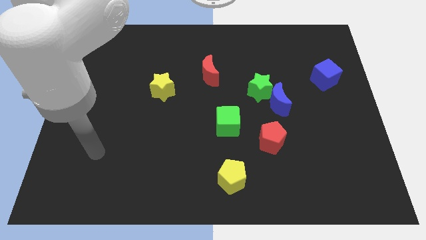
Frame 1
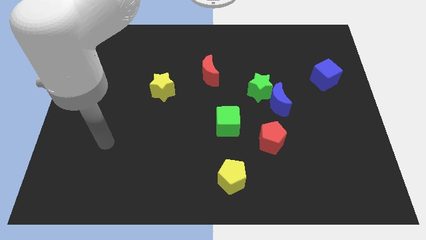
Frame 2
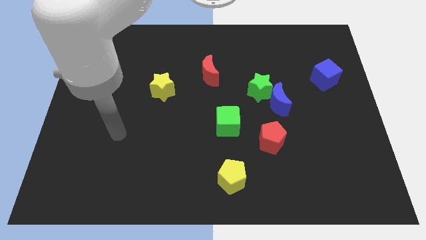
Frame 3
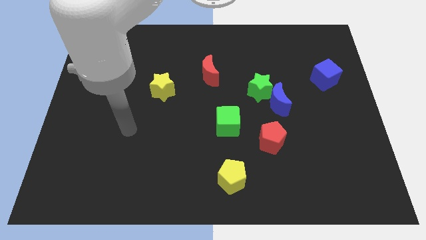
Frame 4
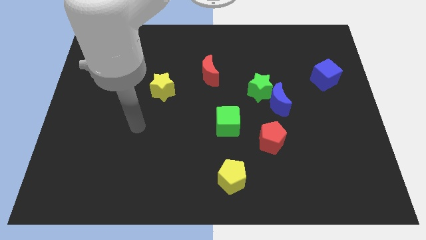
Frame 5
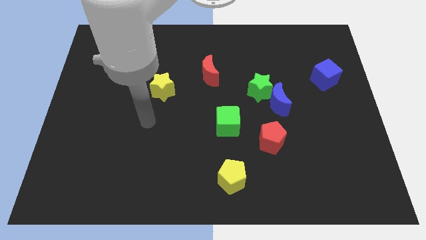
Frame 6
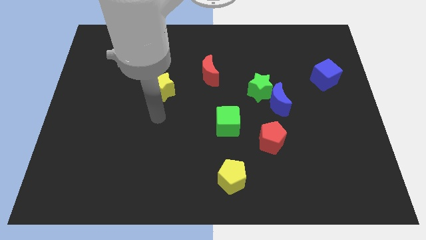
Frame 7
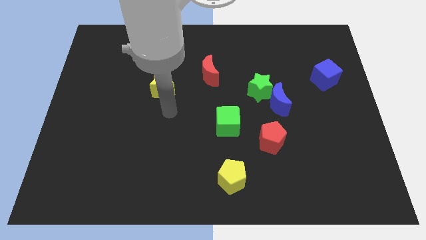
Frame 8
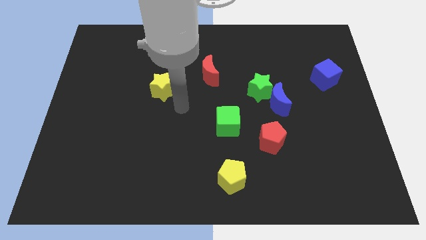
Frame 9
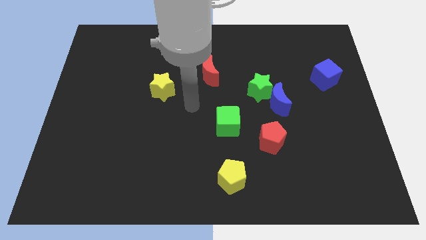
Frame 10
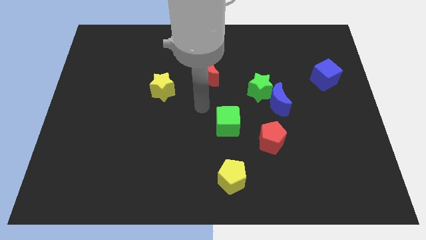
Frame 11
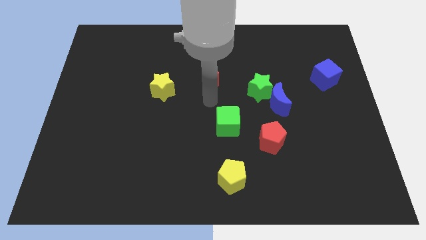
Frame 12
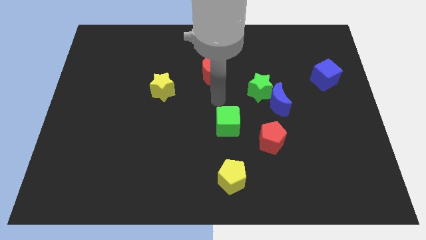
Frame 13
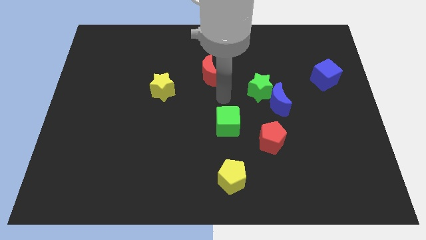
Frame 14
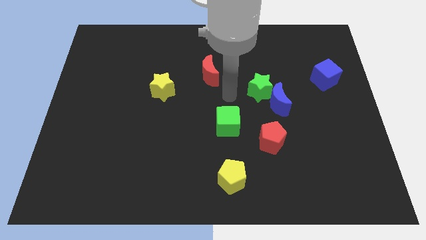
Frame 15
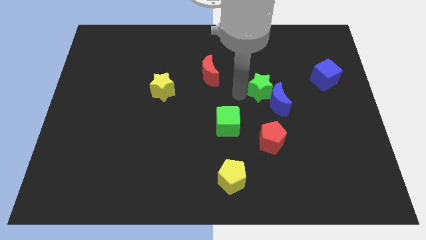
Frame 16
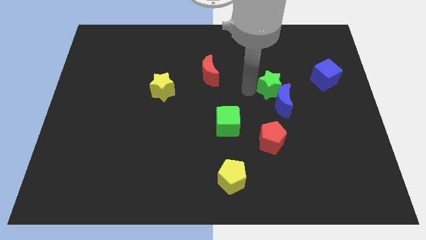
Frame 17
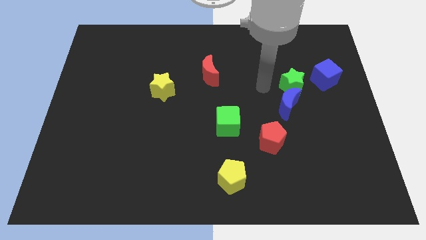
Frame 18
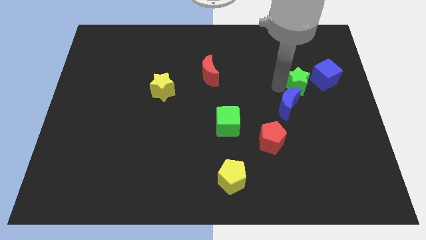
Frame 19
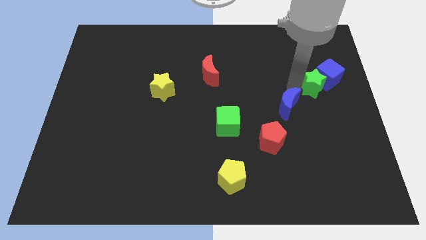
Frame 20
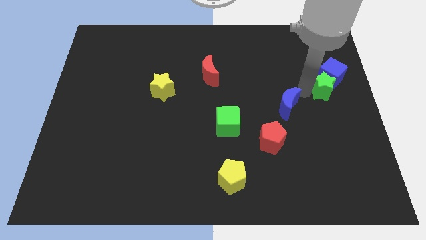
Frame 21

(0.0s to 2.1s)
move the blue moon away from the green star

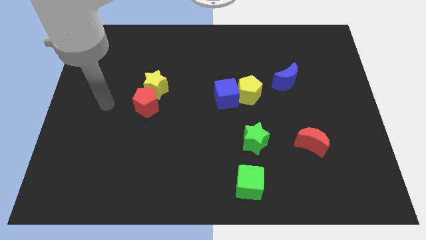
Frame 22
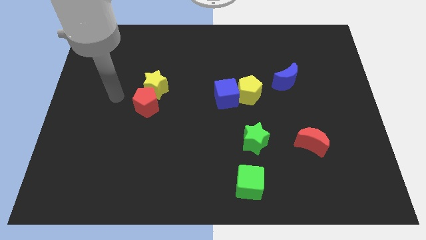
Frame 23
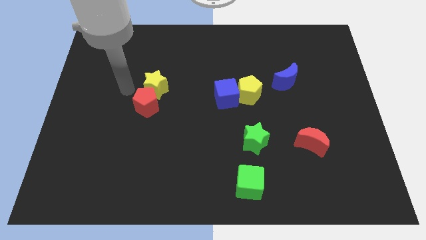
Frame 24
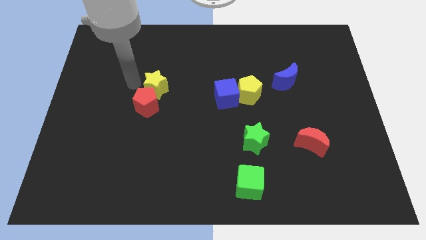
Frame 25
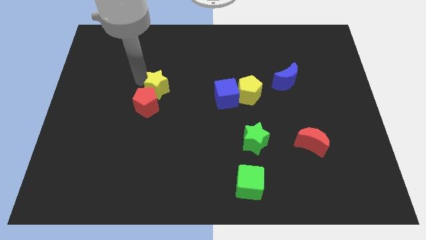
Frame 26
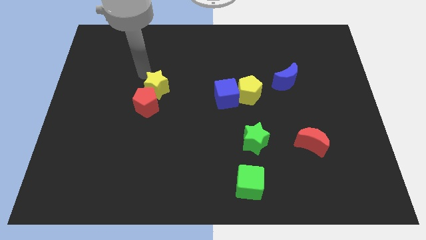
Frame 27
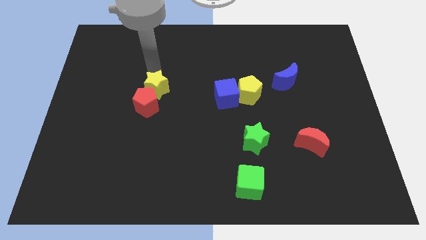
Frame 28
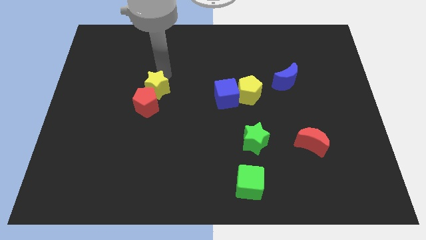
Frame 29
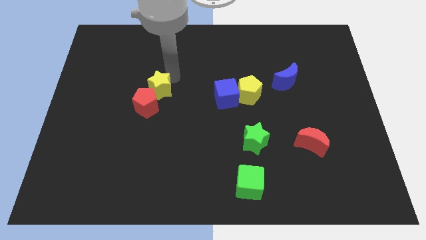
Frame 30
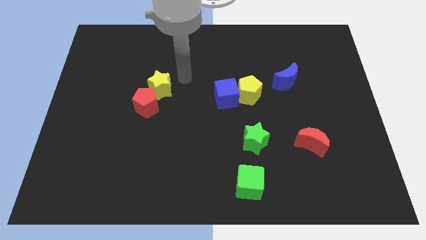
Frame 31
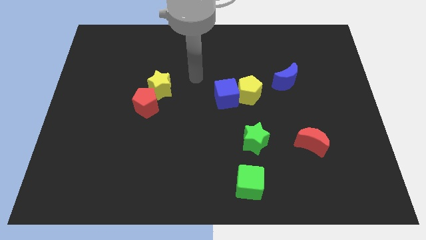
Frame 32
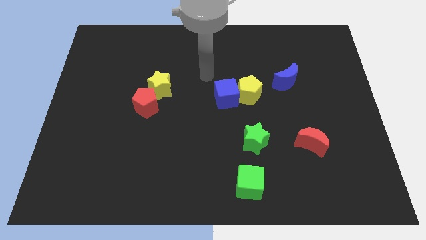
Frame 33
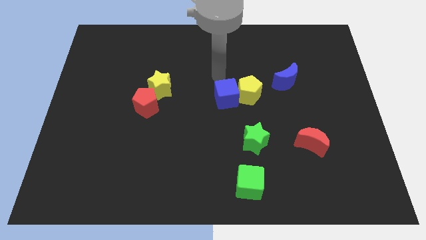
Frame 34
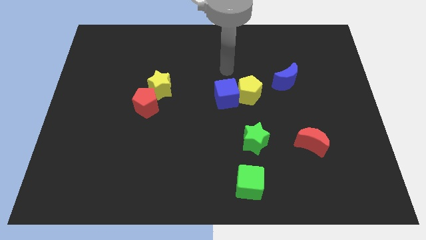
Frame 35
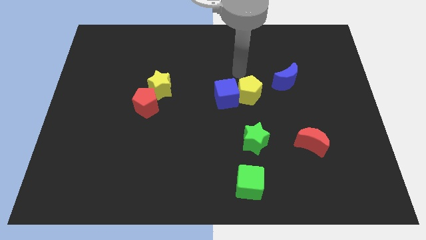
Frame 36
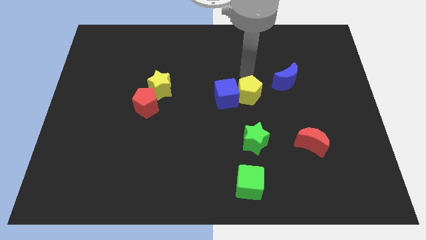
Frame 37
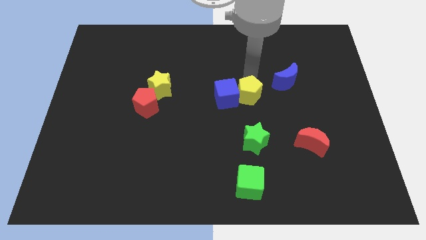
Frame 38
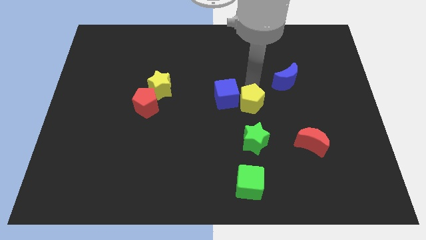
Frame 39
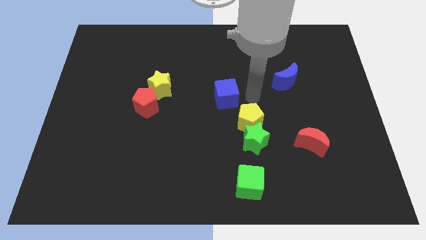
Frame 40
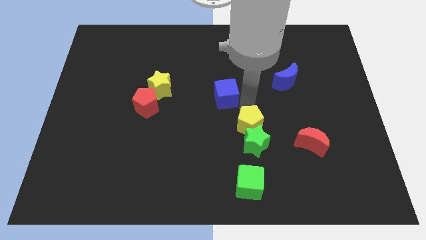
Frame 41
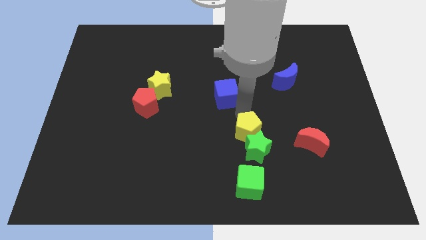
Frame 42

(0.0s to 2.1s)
separate the blue cube from the yellow pentagon

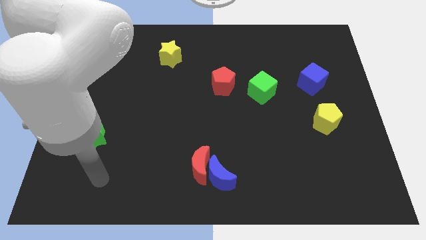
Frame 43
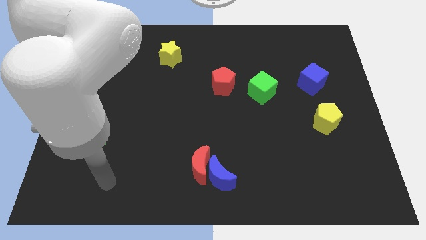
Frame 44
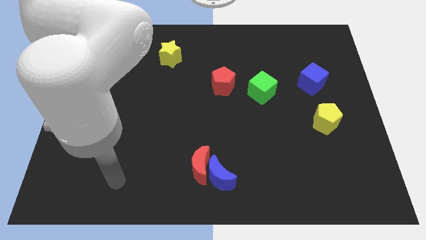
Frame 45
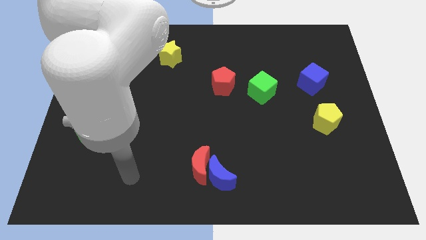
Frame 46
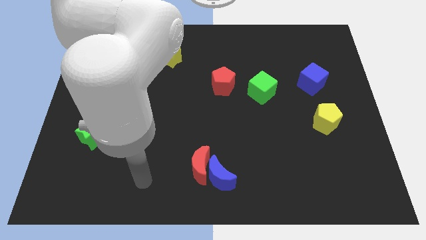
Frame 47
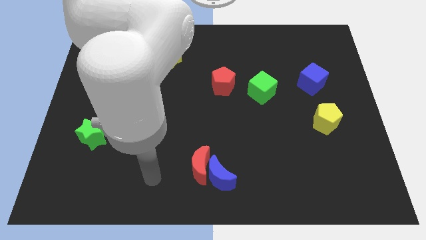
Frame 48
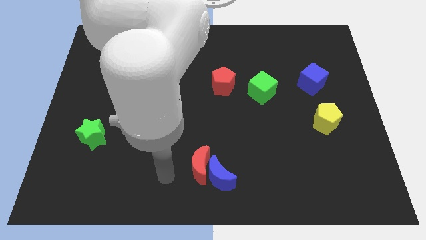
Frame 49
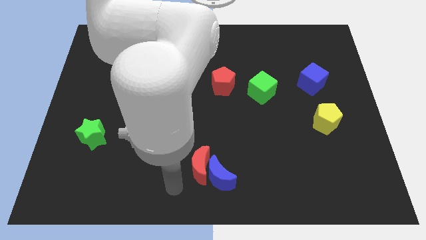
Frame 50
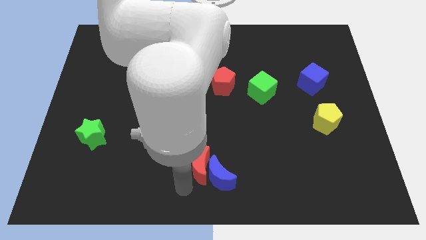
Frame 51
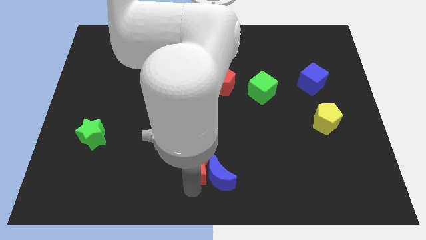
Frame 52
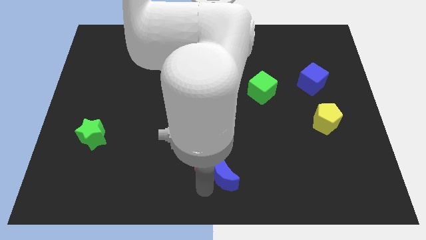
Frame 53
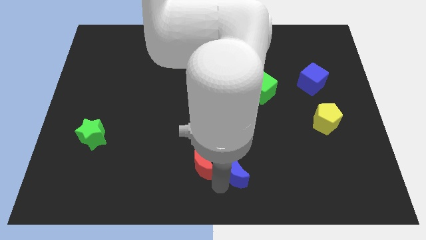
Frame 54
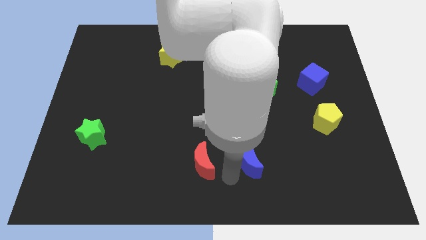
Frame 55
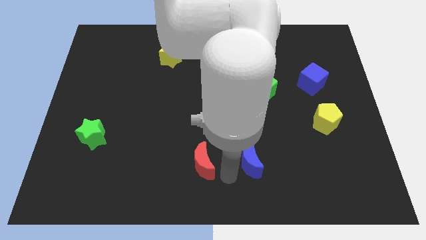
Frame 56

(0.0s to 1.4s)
separate the red moon from the blue moon

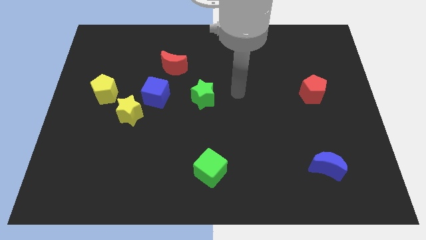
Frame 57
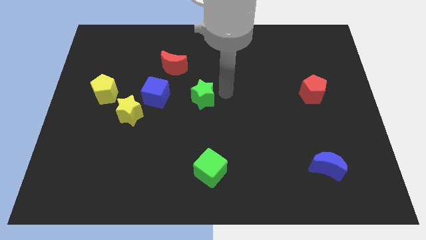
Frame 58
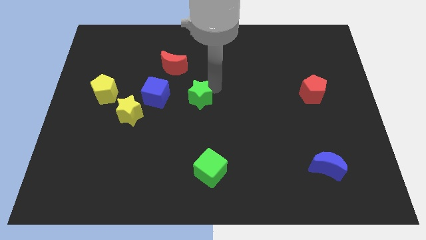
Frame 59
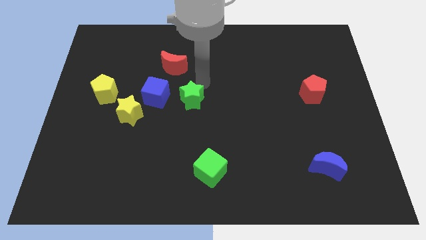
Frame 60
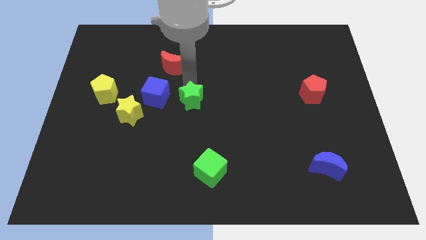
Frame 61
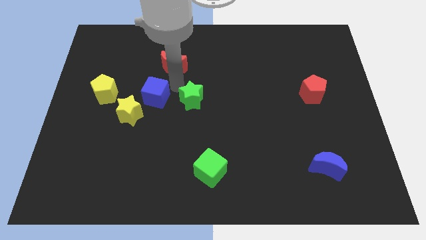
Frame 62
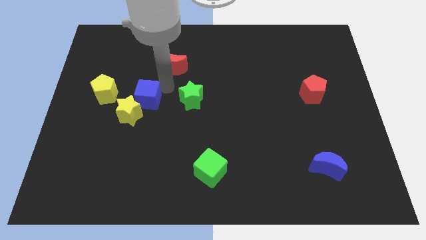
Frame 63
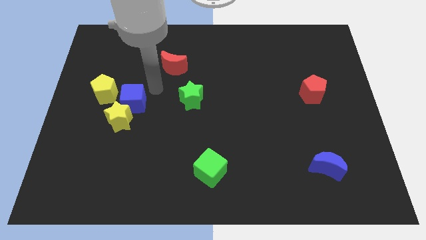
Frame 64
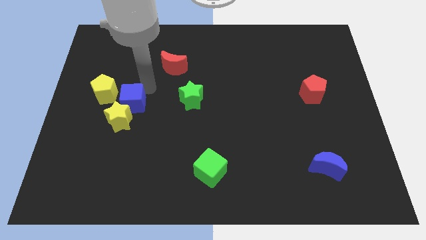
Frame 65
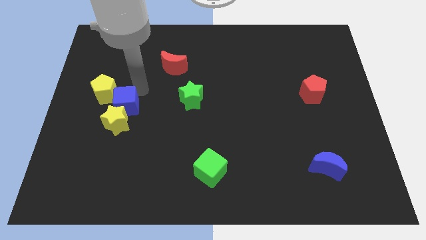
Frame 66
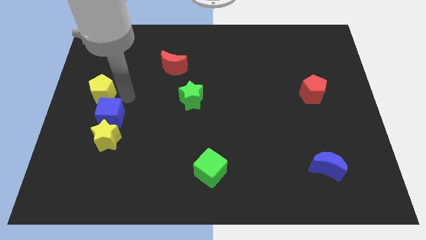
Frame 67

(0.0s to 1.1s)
separate the yellow star from the blue cube and yellow pentagon

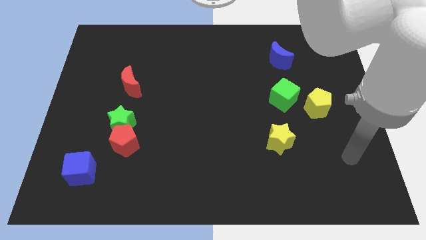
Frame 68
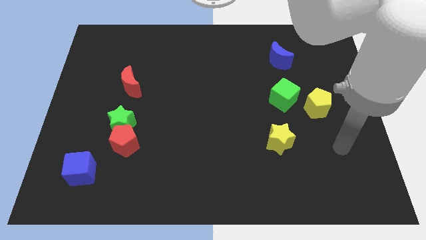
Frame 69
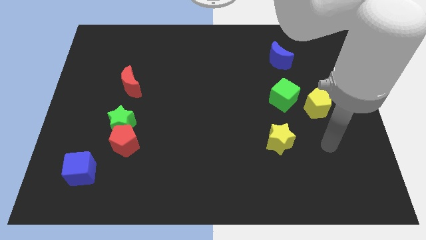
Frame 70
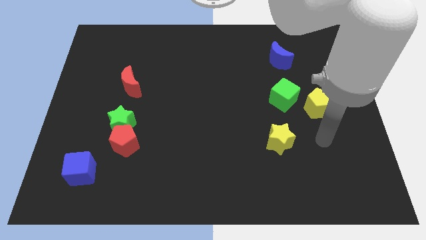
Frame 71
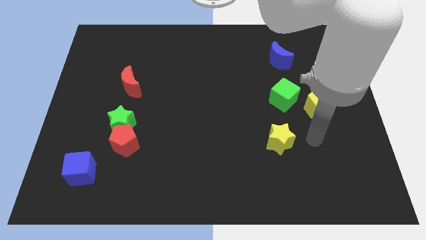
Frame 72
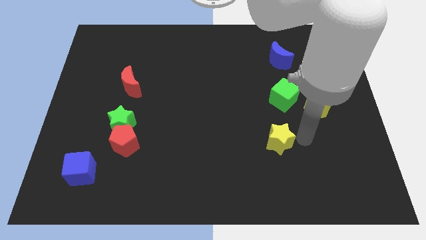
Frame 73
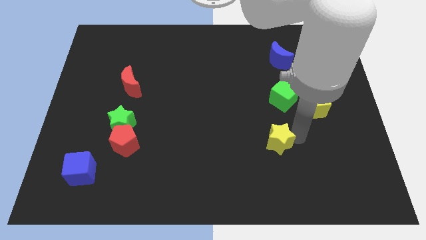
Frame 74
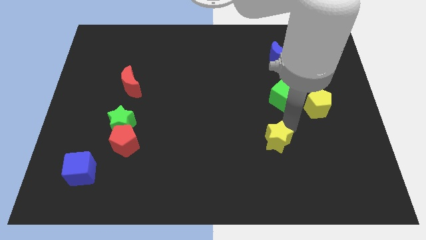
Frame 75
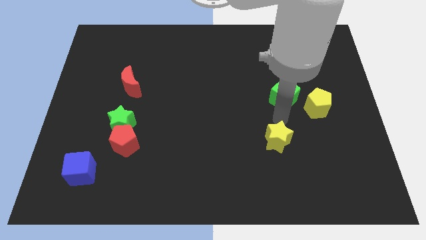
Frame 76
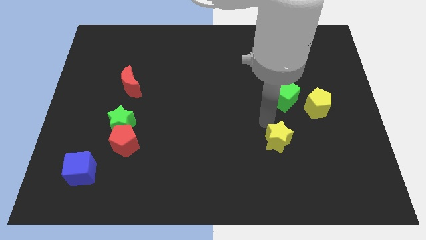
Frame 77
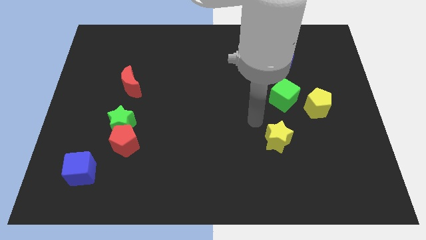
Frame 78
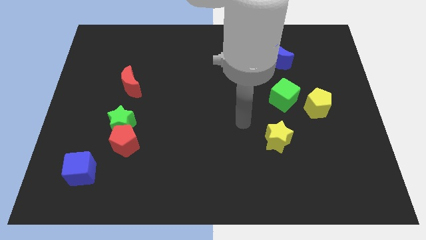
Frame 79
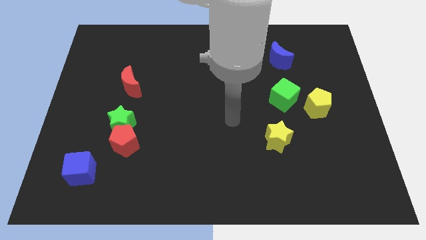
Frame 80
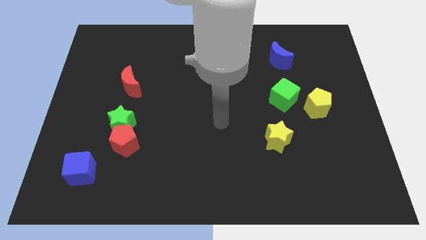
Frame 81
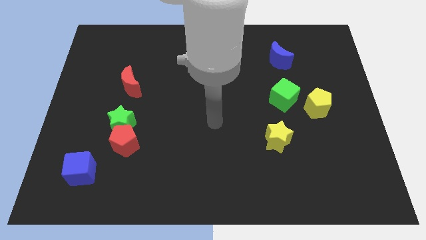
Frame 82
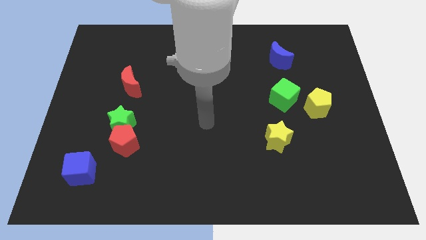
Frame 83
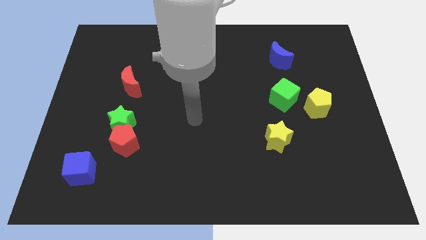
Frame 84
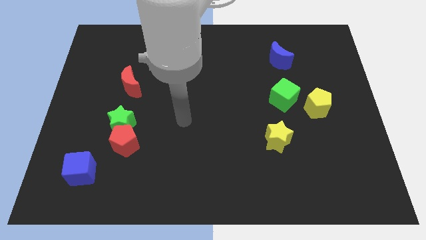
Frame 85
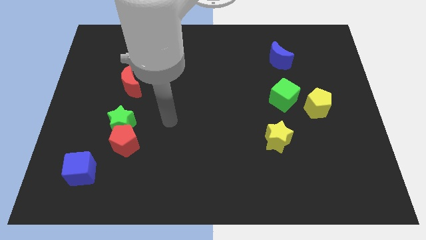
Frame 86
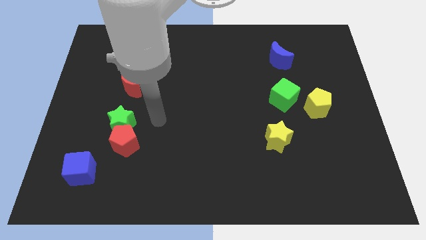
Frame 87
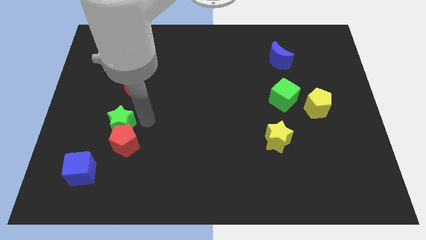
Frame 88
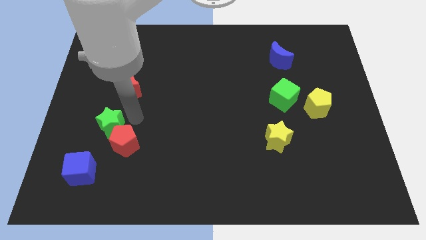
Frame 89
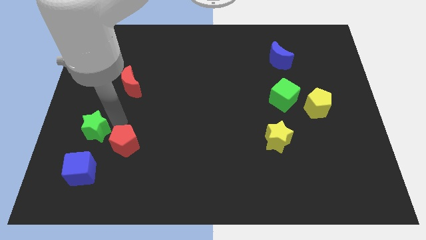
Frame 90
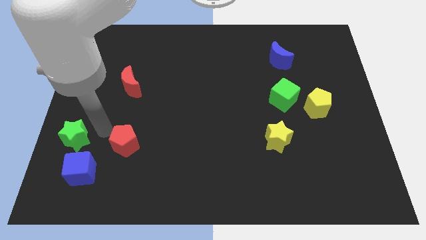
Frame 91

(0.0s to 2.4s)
move the red pentagon away from the green star

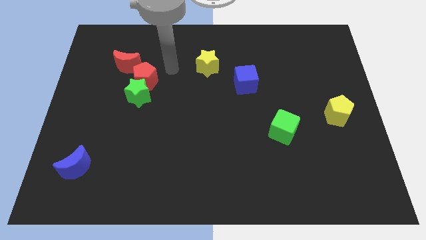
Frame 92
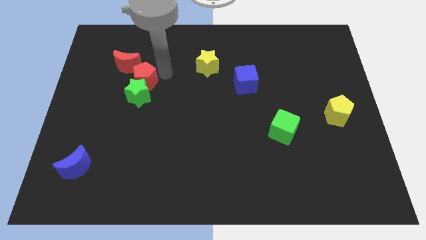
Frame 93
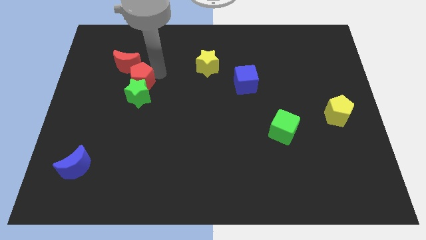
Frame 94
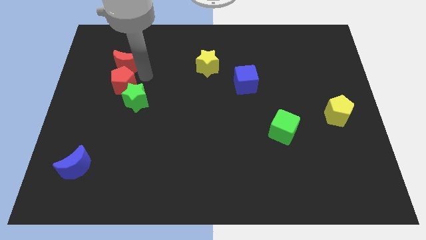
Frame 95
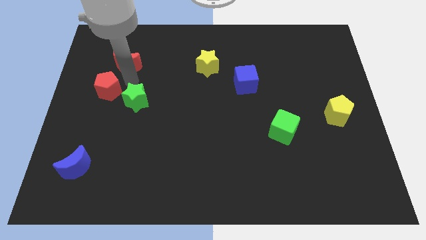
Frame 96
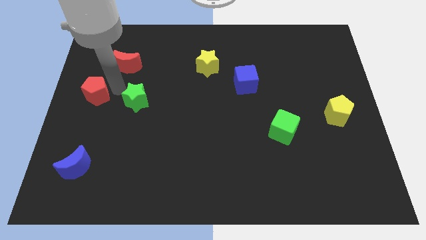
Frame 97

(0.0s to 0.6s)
move the green star away from the red pentagon
